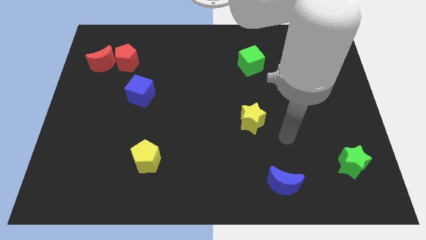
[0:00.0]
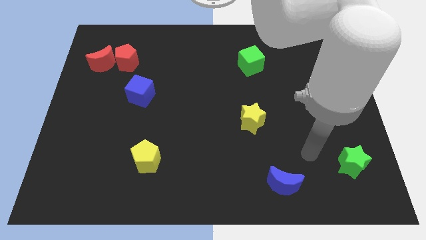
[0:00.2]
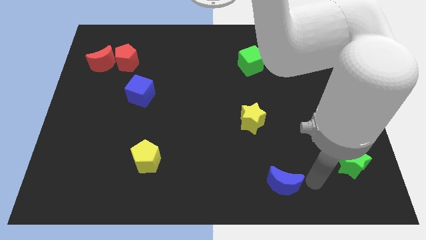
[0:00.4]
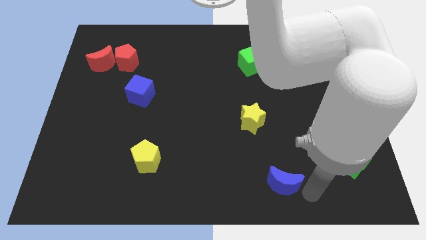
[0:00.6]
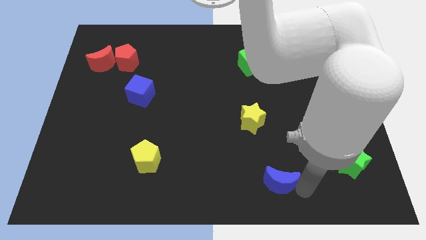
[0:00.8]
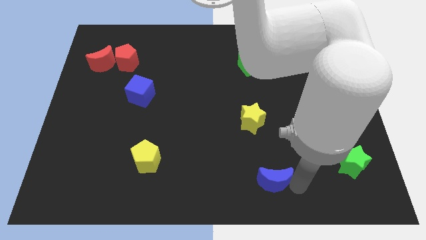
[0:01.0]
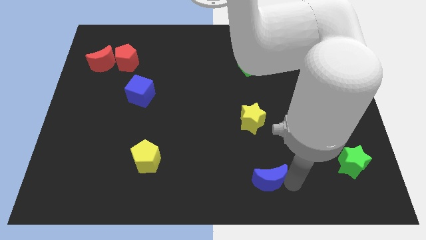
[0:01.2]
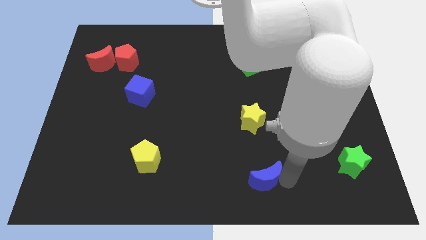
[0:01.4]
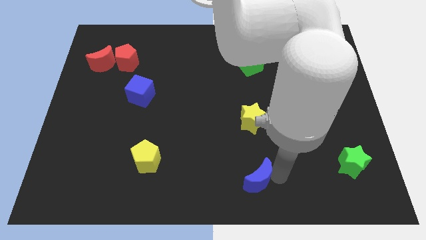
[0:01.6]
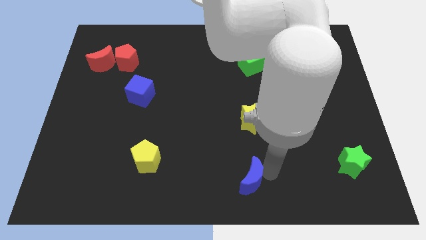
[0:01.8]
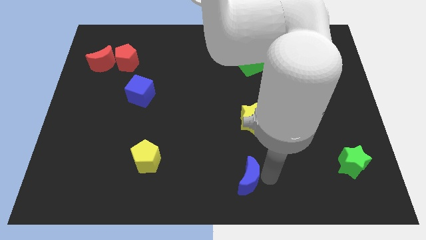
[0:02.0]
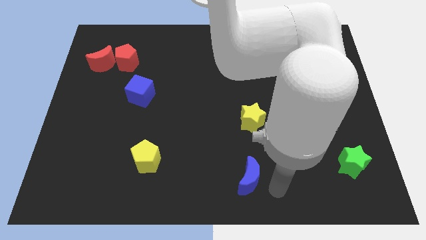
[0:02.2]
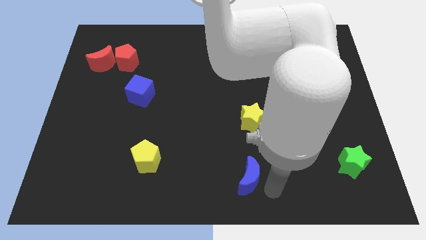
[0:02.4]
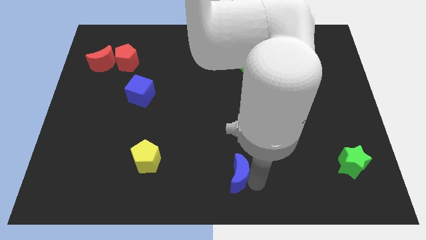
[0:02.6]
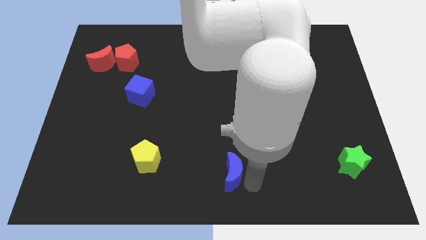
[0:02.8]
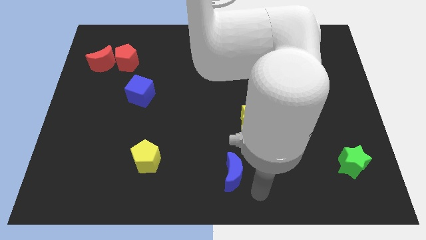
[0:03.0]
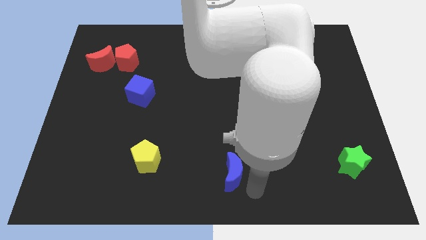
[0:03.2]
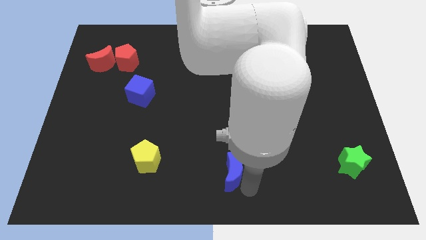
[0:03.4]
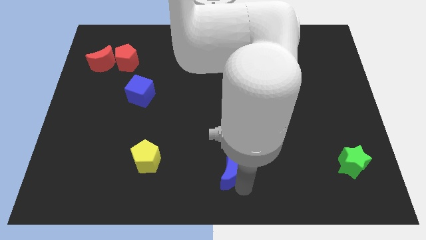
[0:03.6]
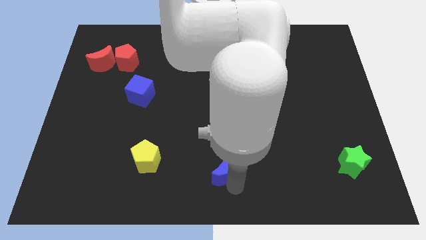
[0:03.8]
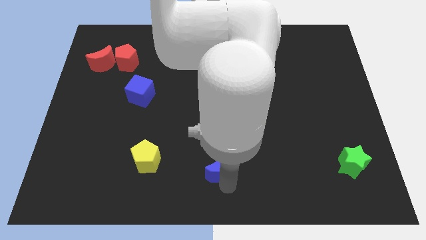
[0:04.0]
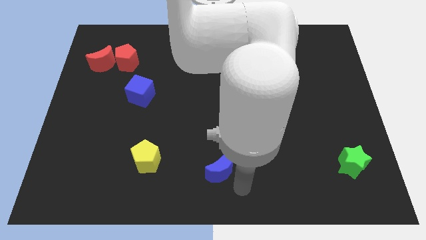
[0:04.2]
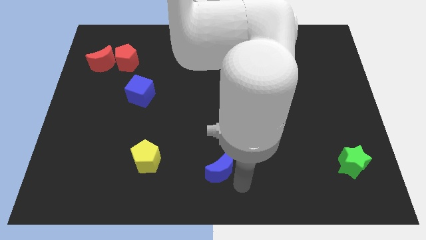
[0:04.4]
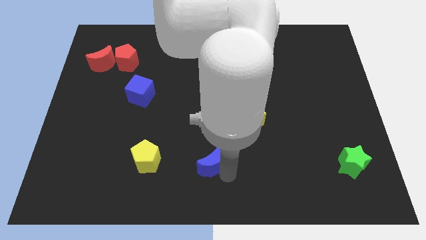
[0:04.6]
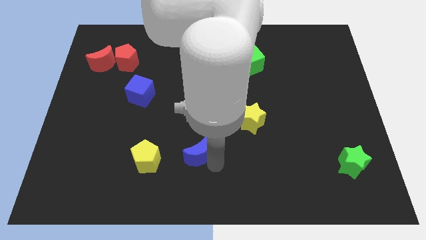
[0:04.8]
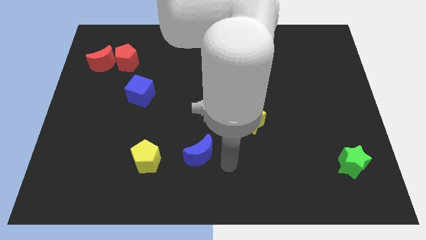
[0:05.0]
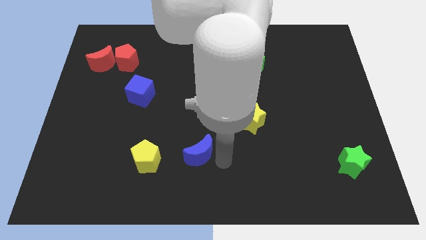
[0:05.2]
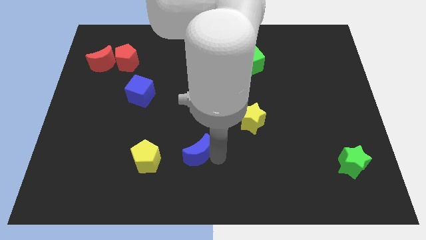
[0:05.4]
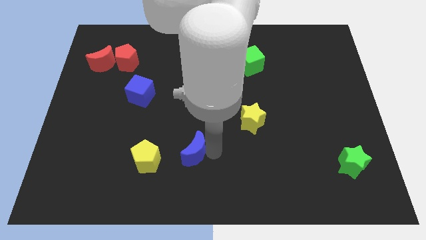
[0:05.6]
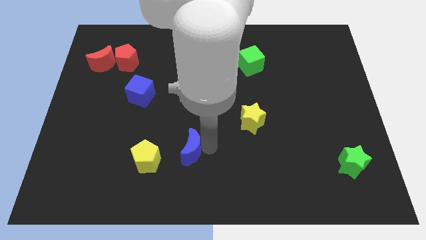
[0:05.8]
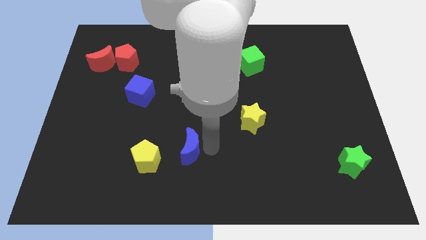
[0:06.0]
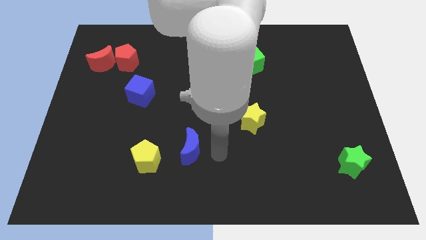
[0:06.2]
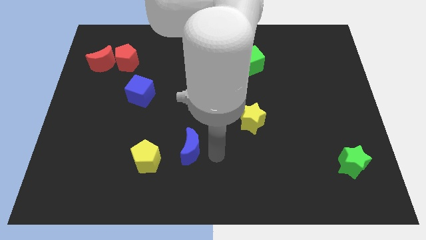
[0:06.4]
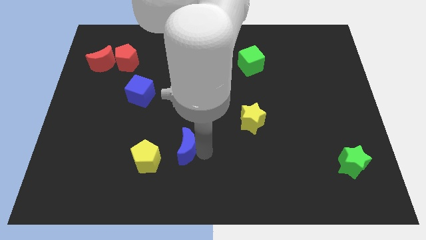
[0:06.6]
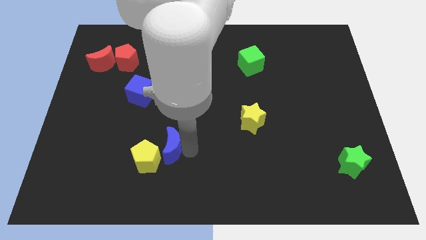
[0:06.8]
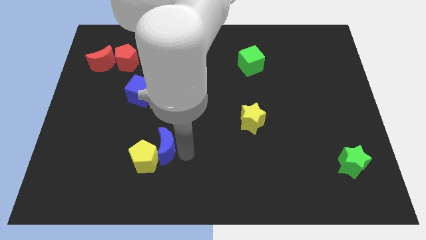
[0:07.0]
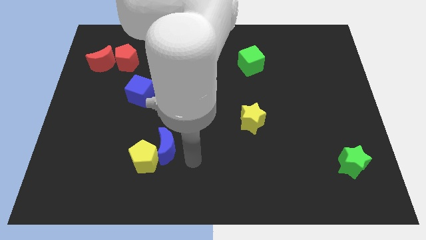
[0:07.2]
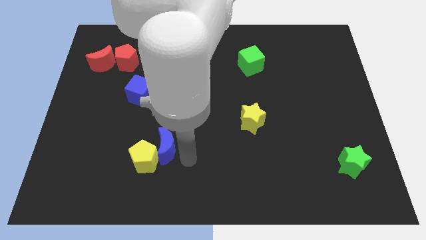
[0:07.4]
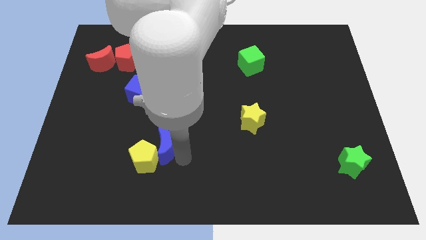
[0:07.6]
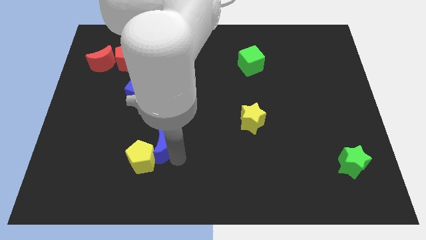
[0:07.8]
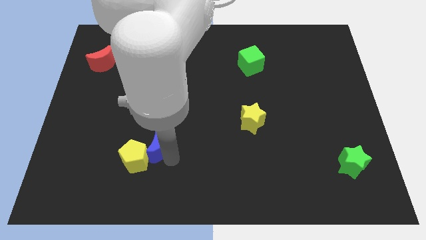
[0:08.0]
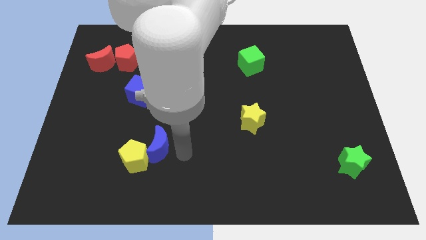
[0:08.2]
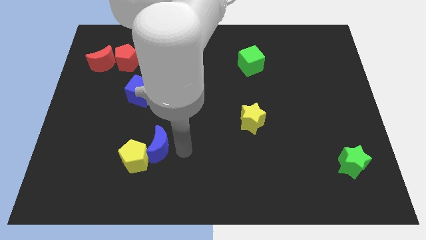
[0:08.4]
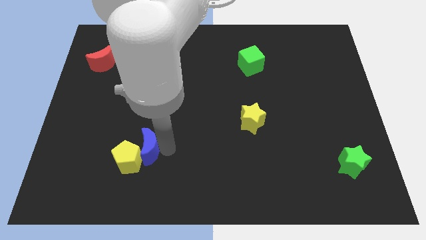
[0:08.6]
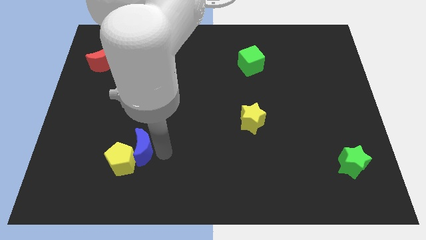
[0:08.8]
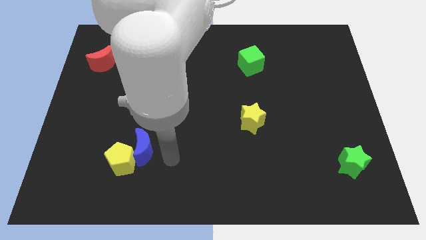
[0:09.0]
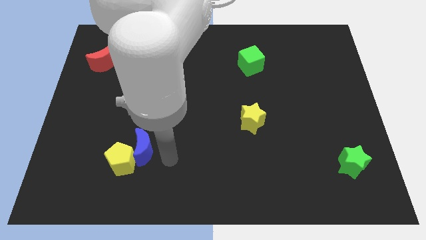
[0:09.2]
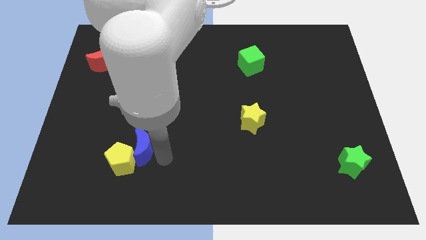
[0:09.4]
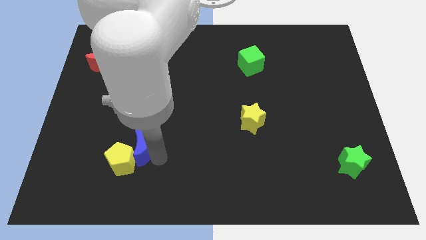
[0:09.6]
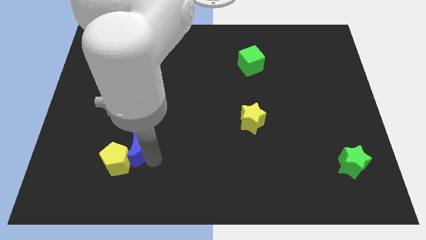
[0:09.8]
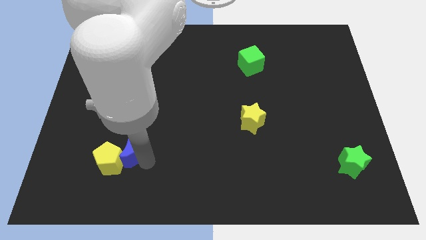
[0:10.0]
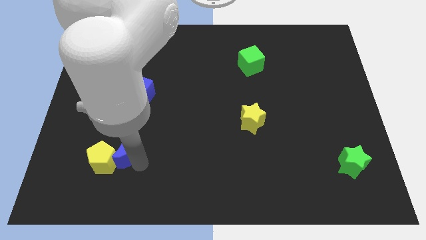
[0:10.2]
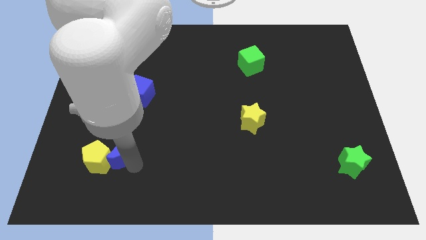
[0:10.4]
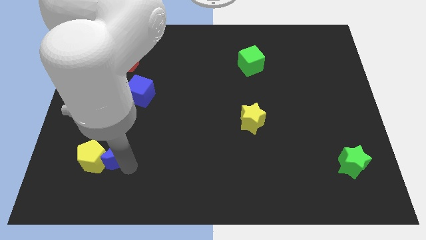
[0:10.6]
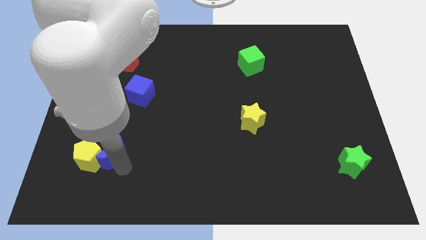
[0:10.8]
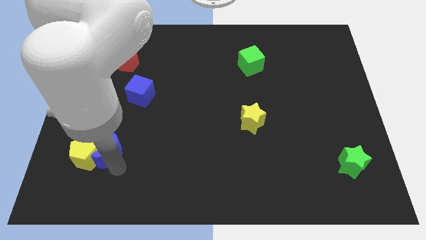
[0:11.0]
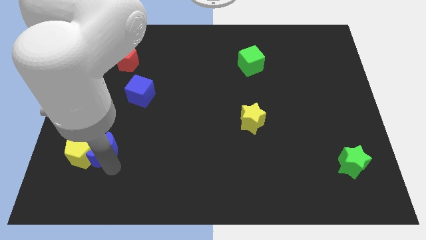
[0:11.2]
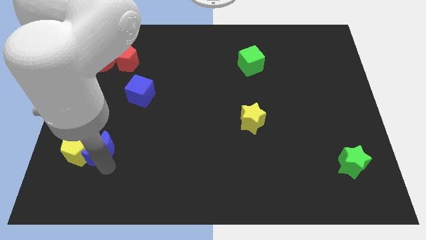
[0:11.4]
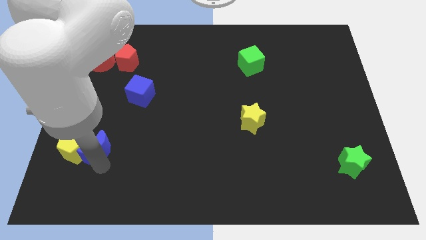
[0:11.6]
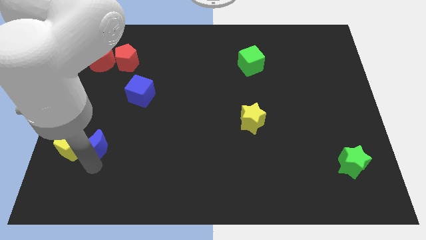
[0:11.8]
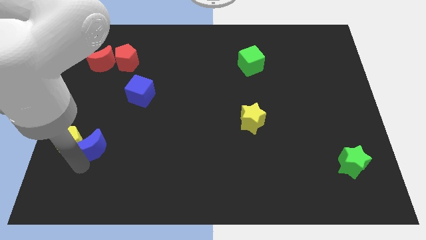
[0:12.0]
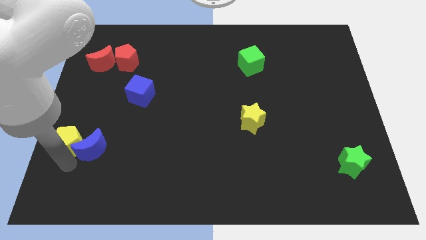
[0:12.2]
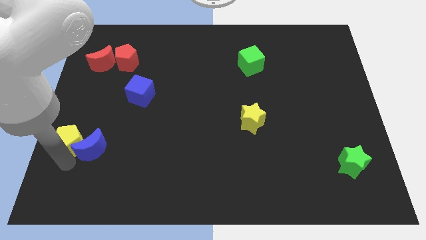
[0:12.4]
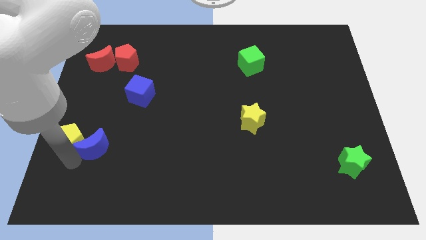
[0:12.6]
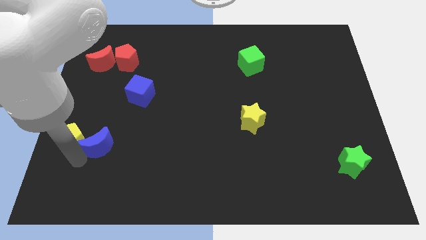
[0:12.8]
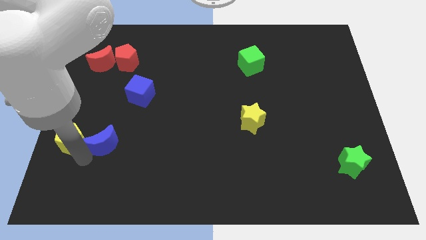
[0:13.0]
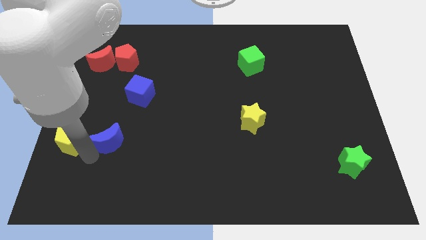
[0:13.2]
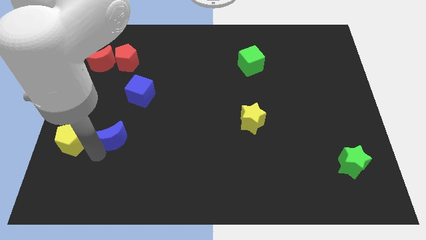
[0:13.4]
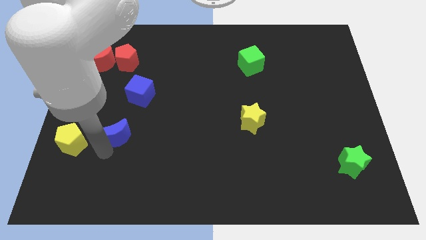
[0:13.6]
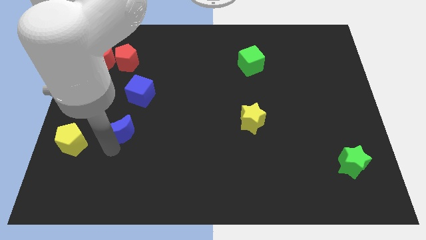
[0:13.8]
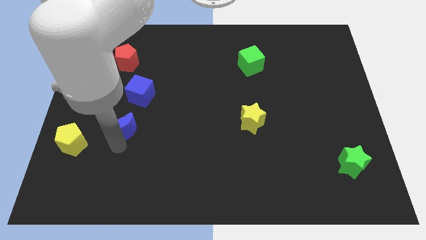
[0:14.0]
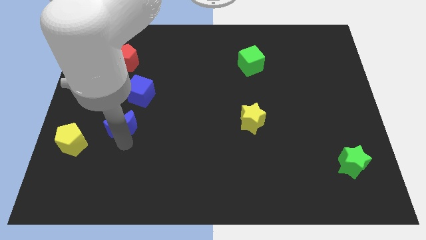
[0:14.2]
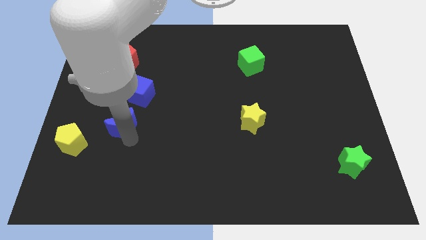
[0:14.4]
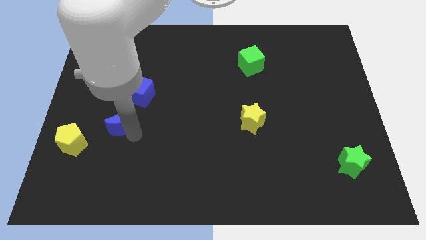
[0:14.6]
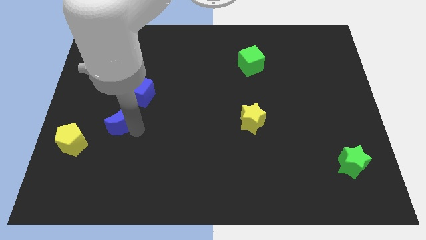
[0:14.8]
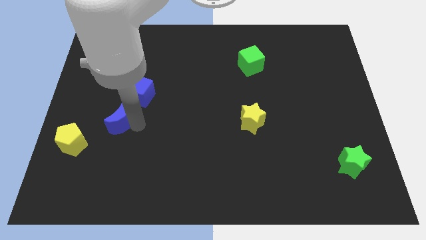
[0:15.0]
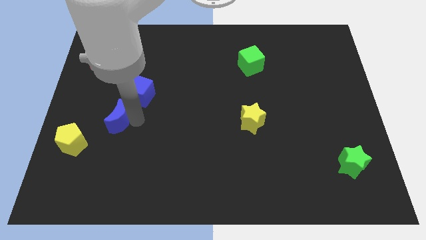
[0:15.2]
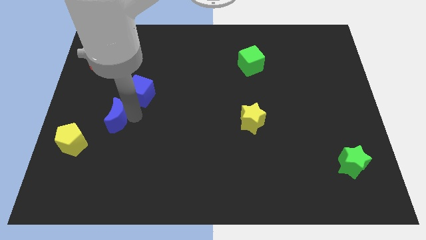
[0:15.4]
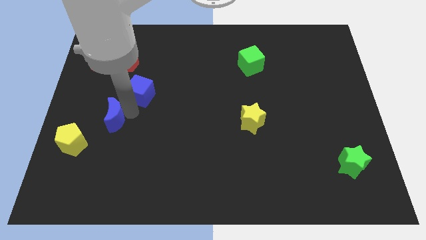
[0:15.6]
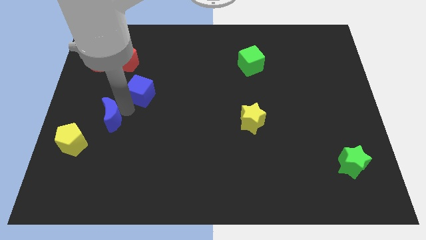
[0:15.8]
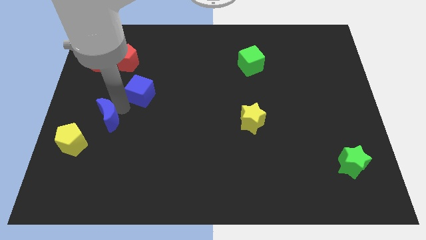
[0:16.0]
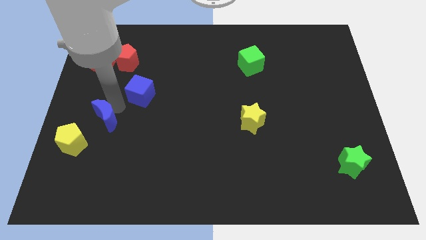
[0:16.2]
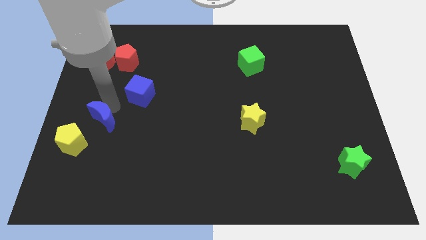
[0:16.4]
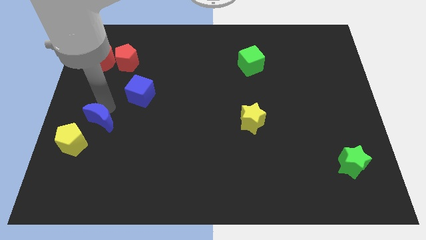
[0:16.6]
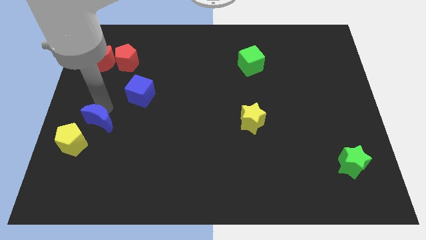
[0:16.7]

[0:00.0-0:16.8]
slide the blue moon to the center left
